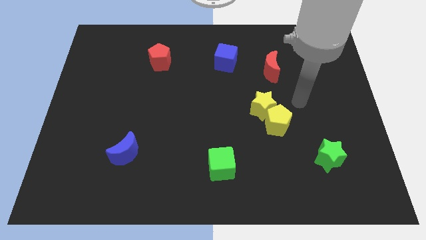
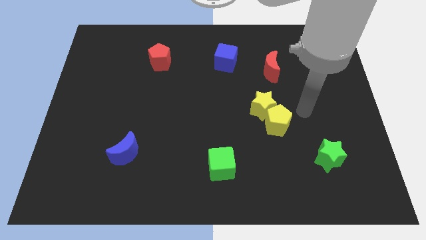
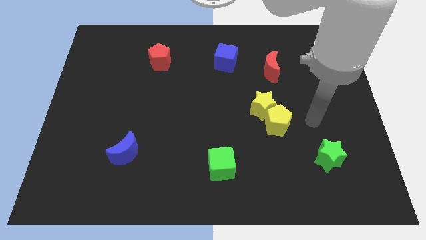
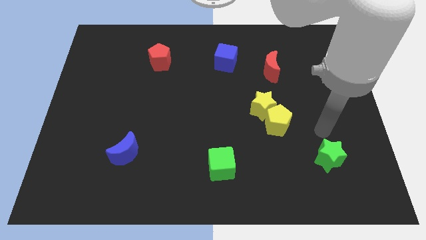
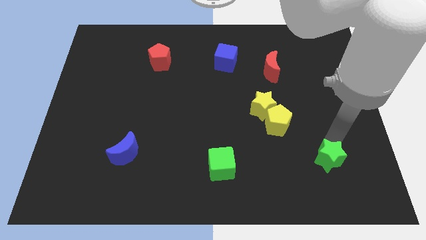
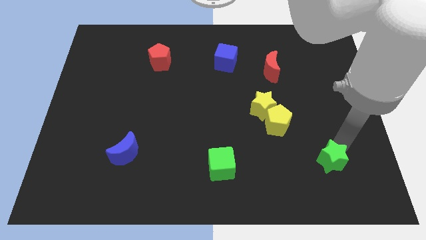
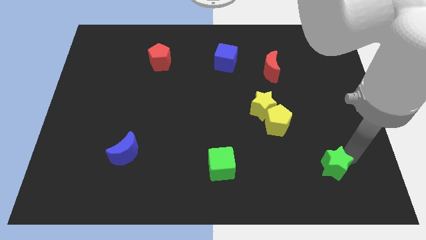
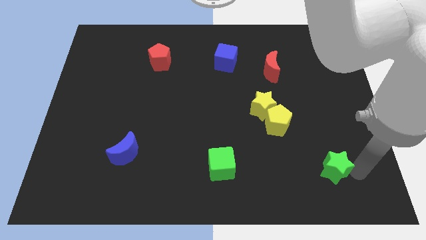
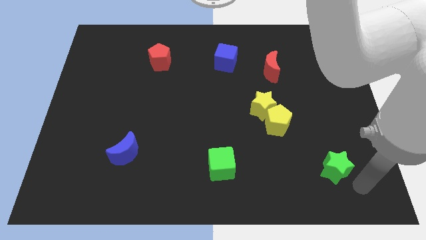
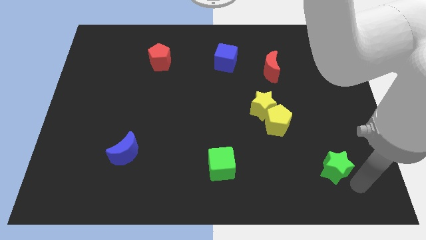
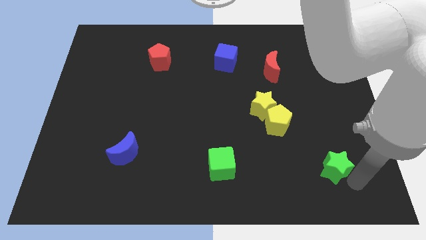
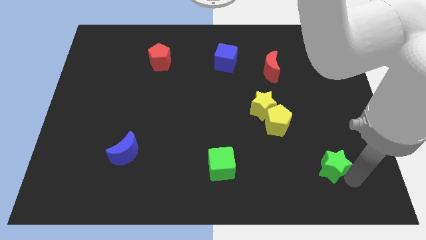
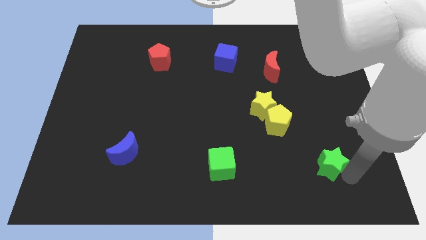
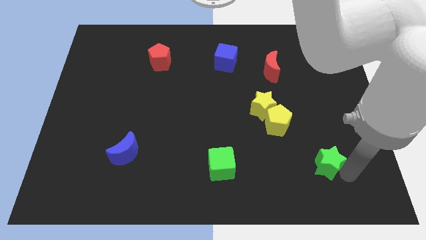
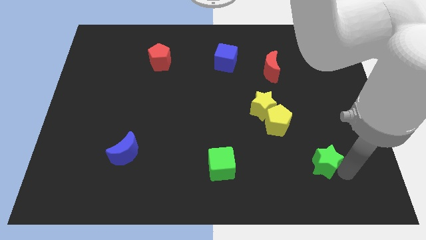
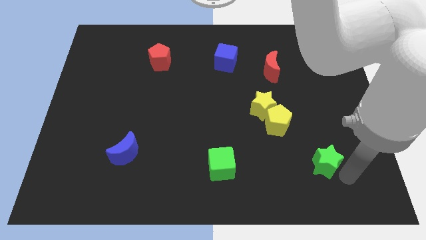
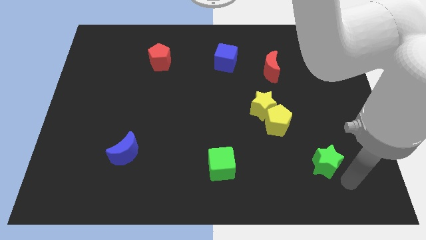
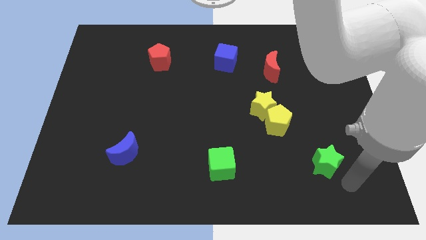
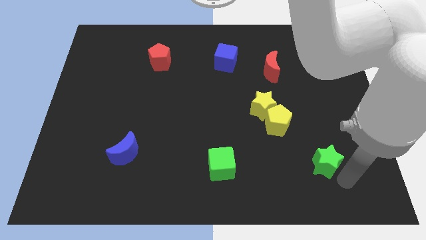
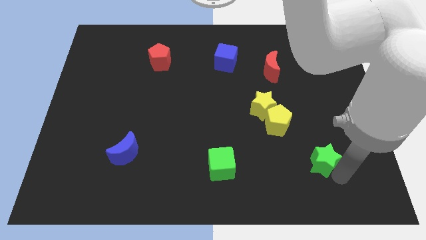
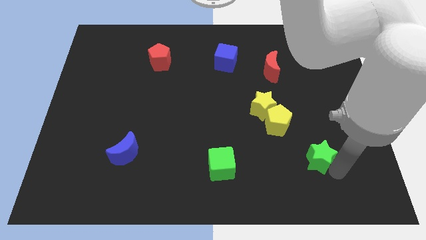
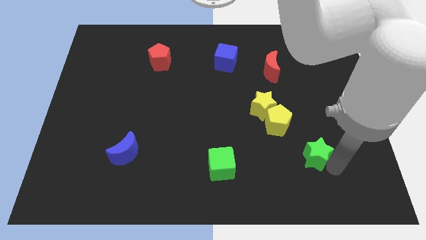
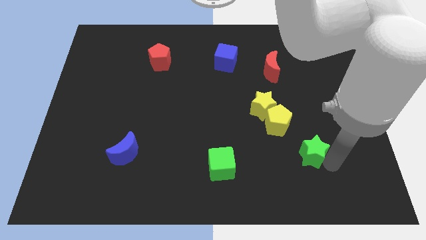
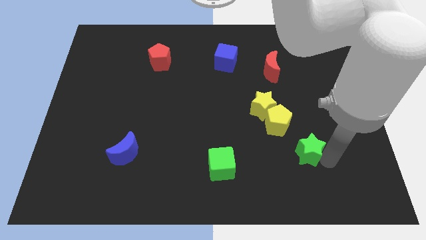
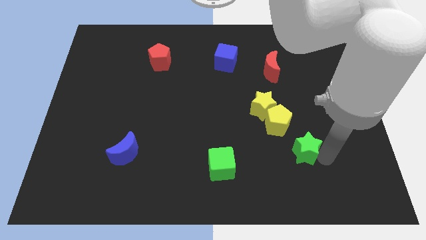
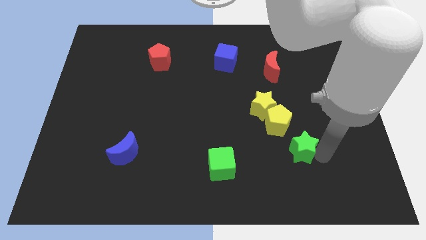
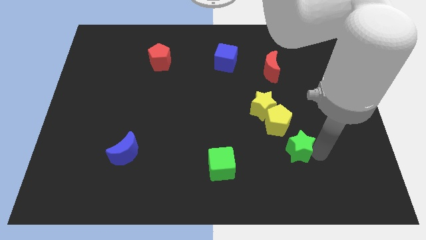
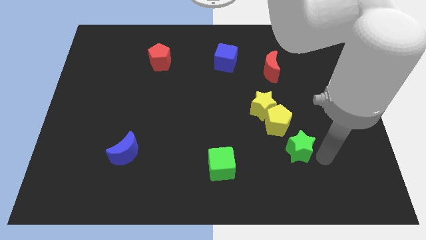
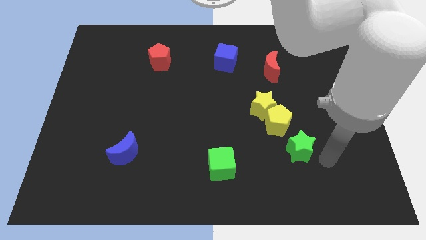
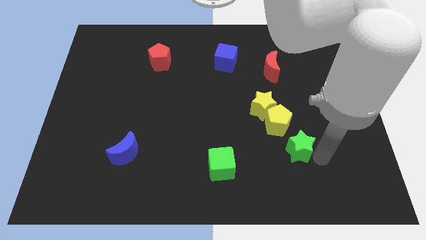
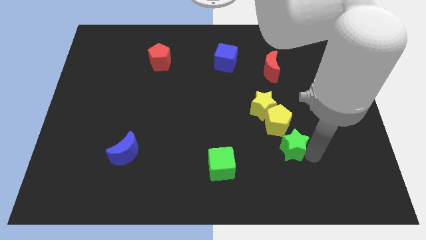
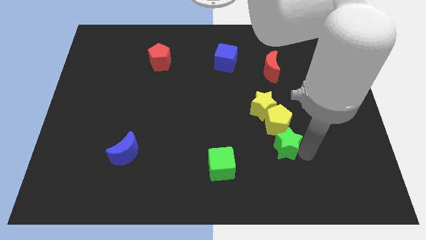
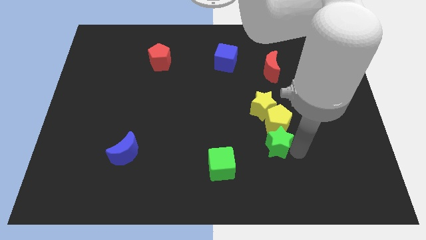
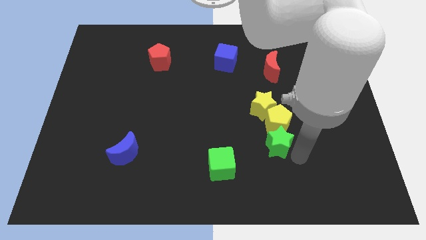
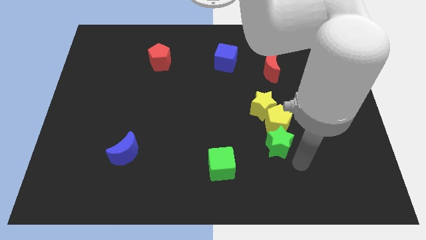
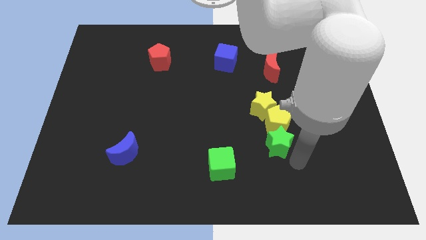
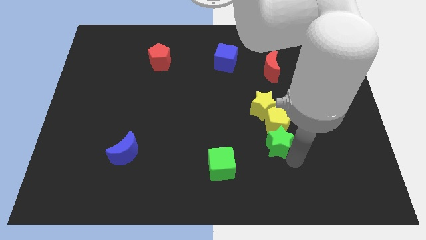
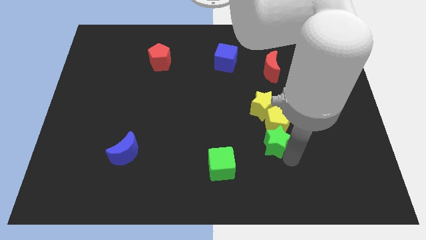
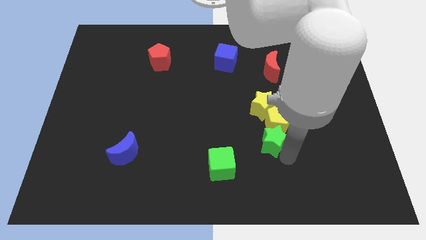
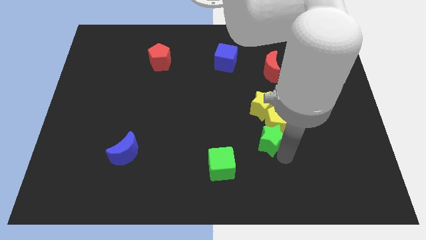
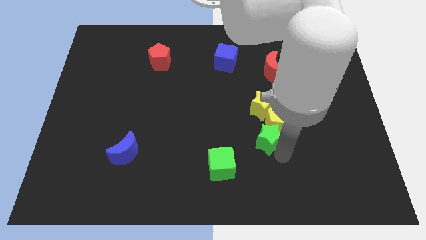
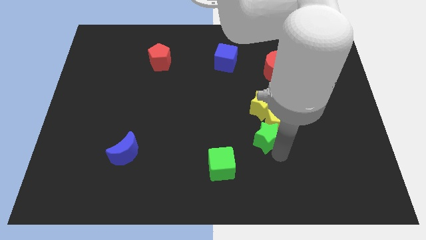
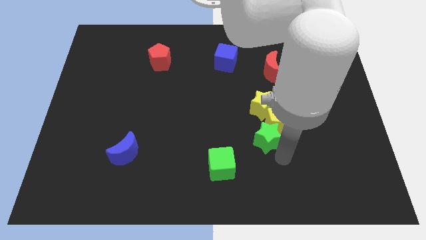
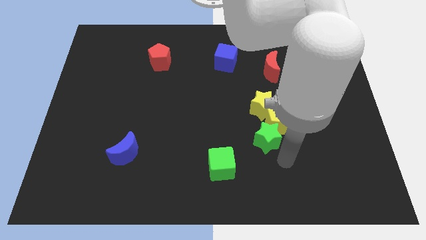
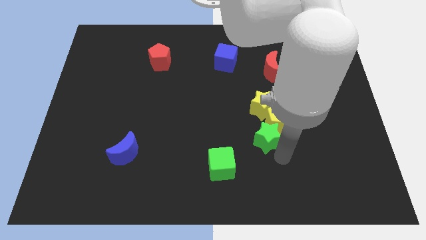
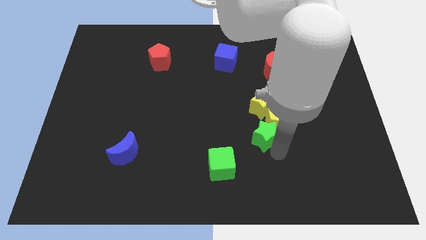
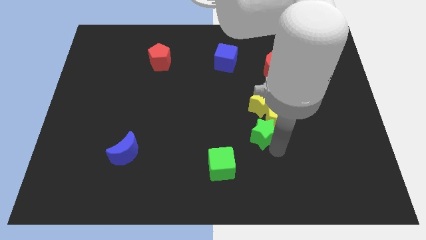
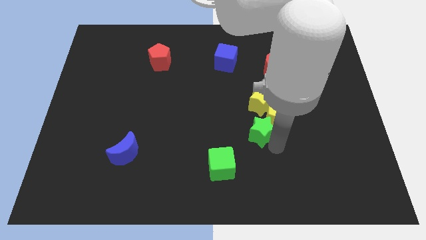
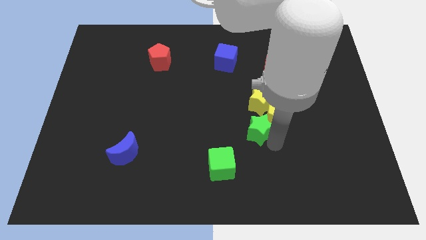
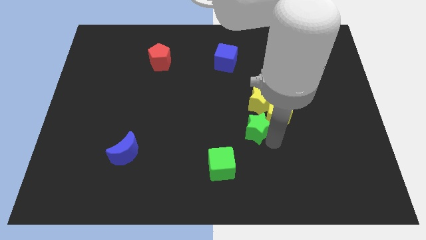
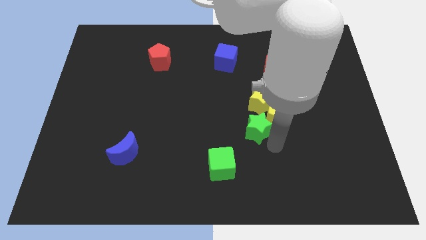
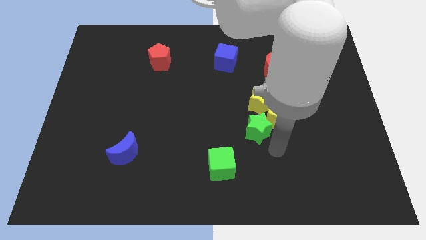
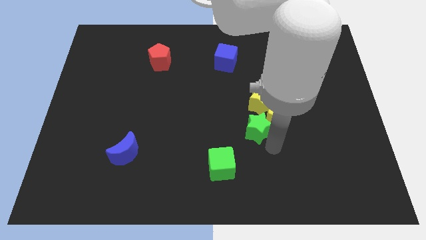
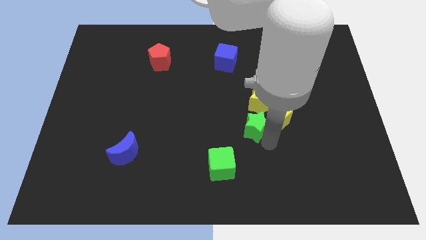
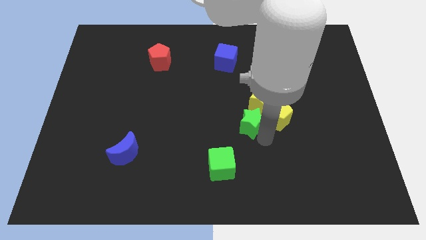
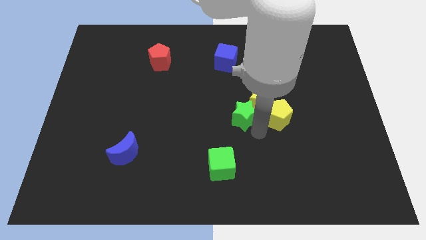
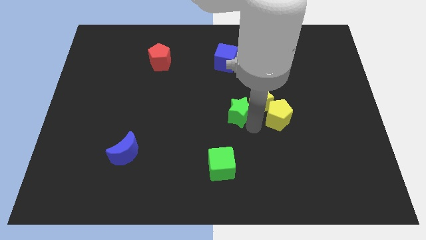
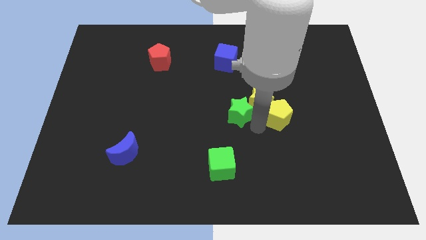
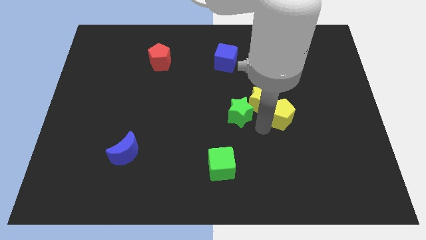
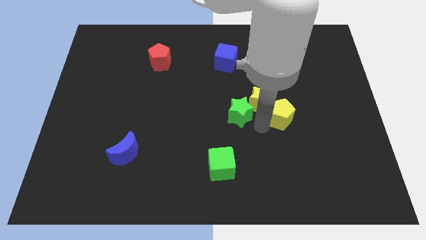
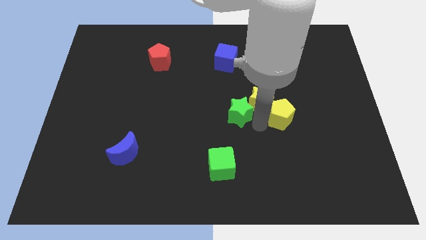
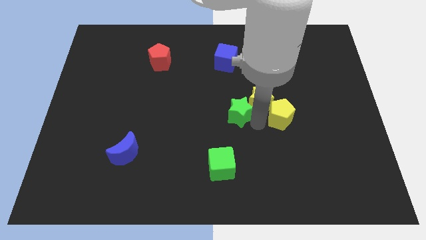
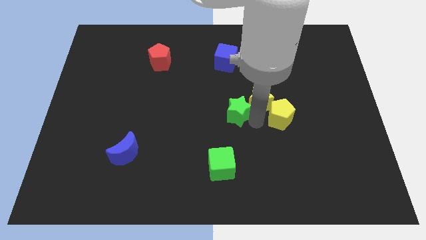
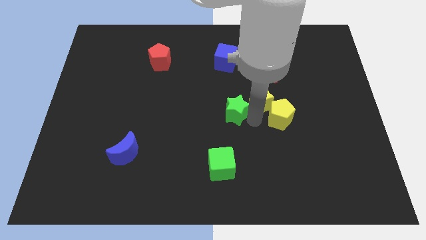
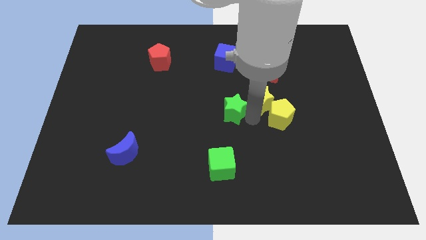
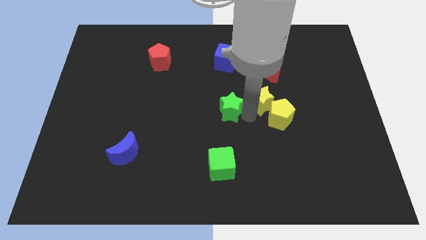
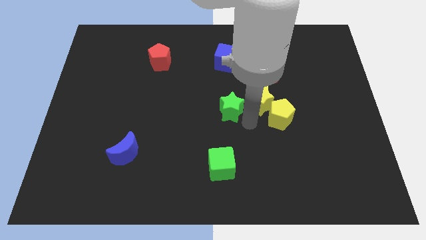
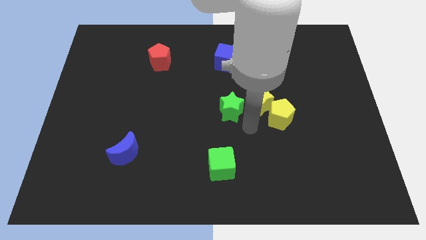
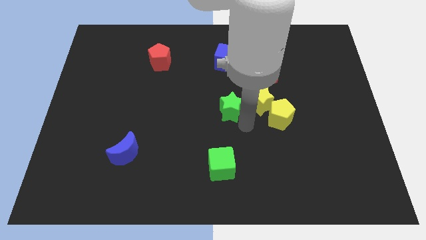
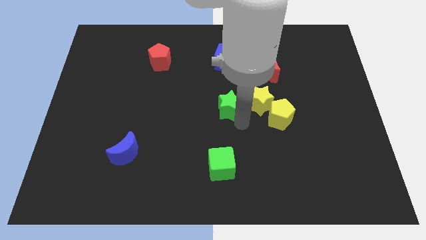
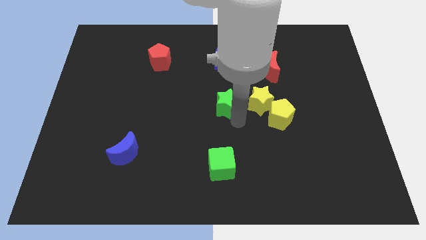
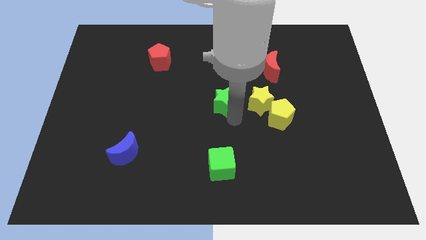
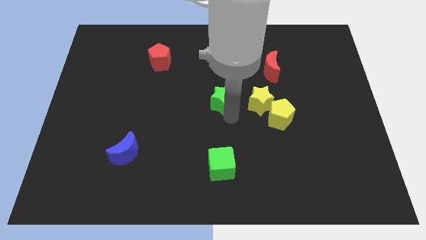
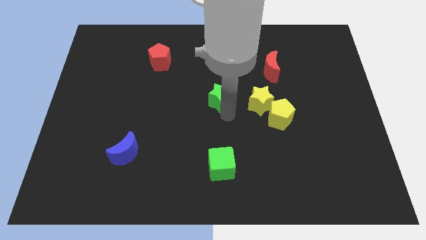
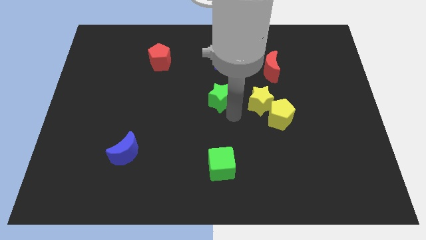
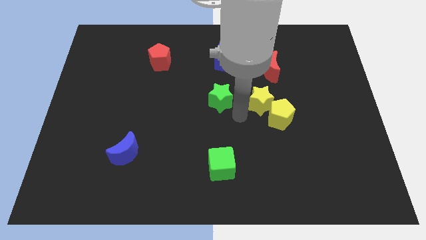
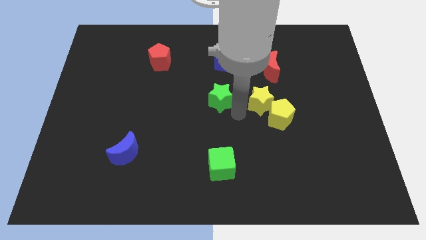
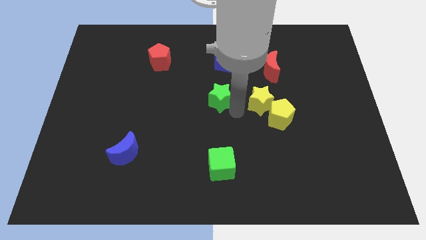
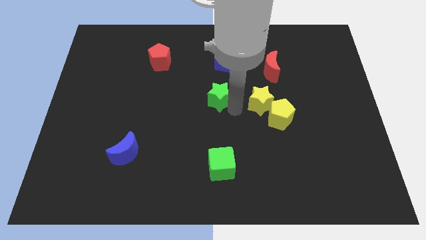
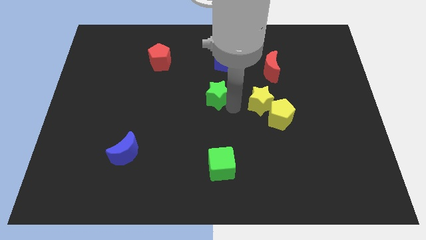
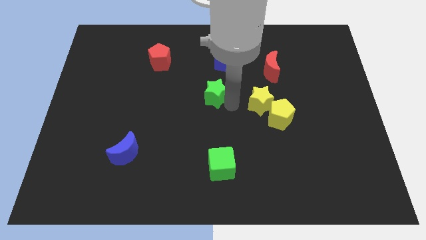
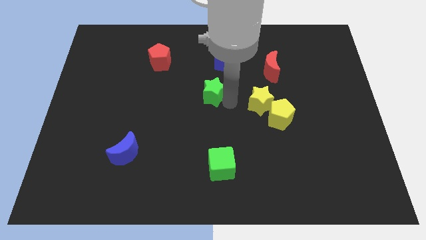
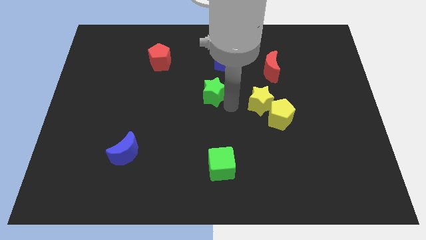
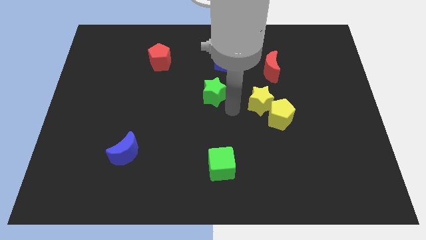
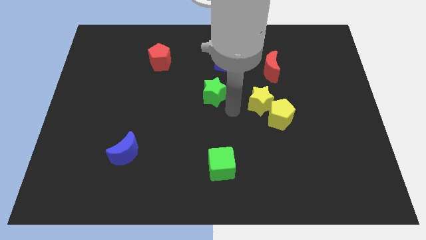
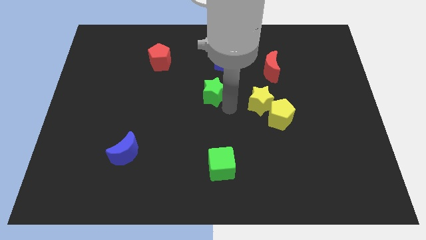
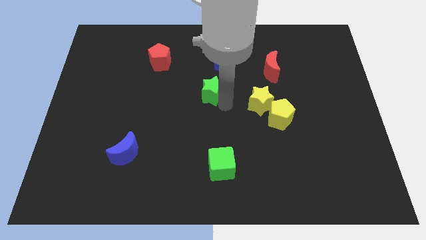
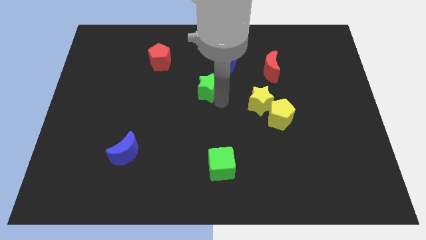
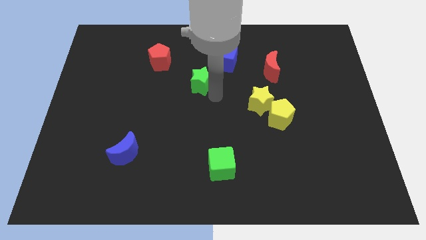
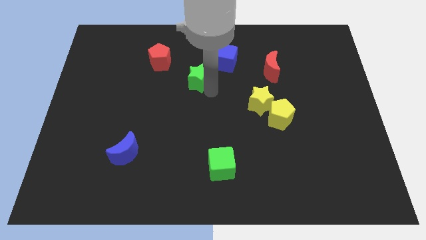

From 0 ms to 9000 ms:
put the green star to the bottom right of the red pentagon
